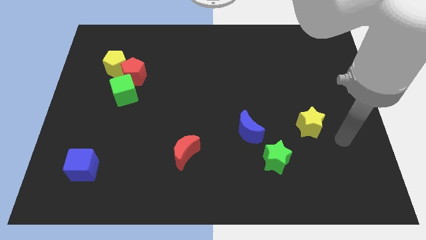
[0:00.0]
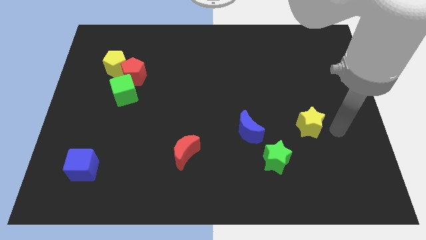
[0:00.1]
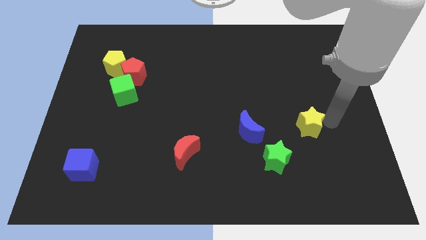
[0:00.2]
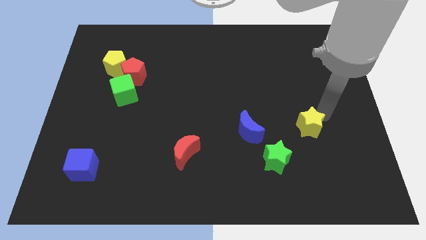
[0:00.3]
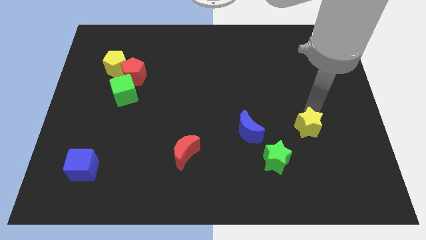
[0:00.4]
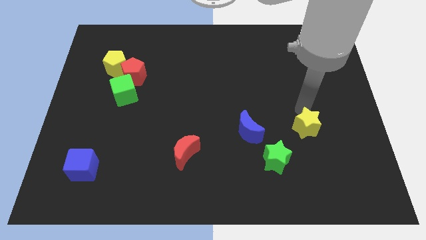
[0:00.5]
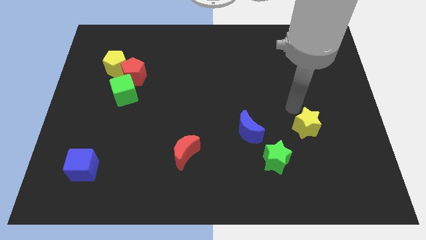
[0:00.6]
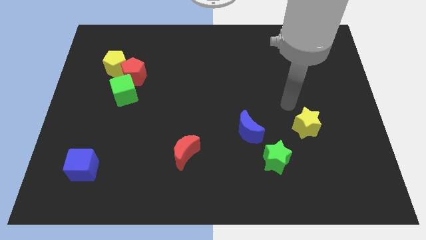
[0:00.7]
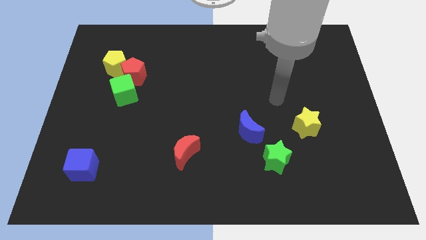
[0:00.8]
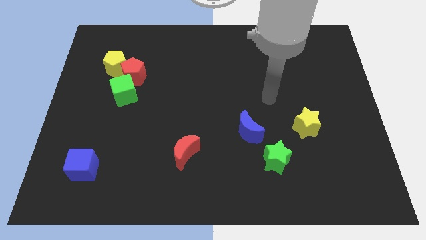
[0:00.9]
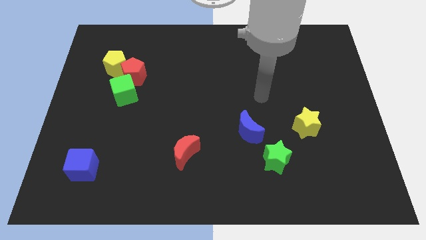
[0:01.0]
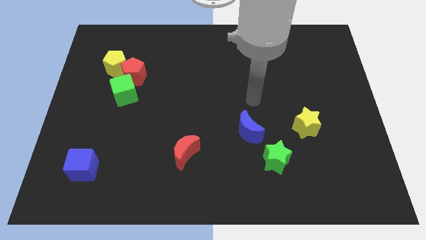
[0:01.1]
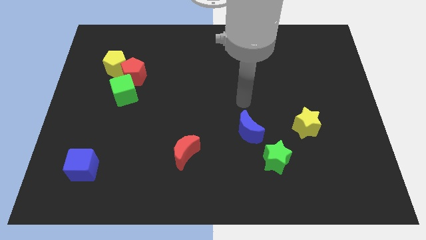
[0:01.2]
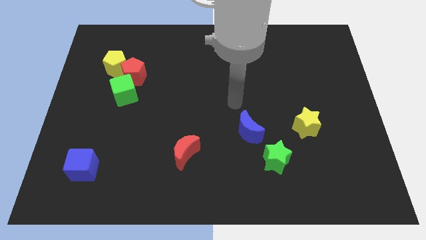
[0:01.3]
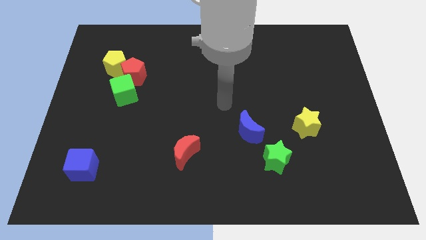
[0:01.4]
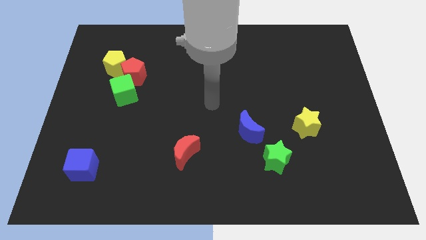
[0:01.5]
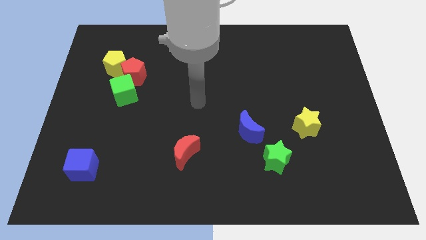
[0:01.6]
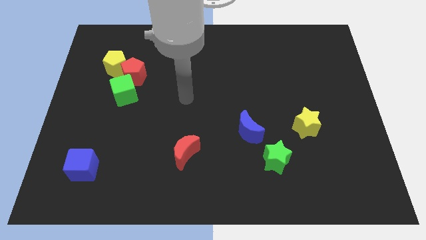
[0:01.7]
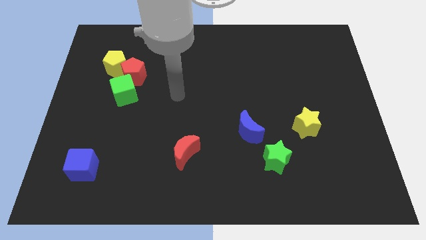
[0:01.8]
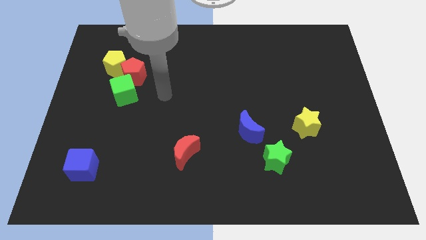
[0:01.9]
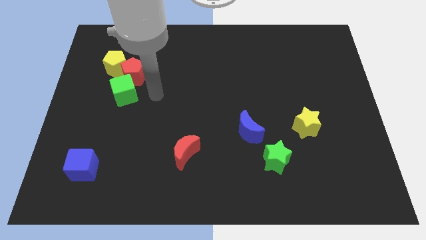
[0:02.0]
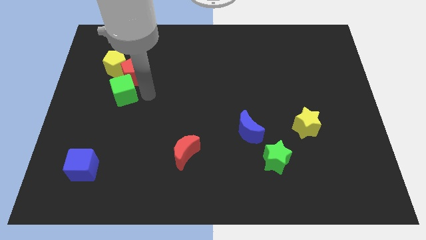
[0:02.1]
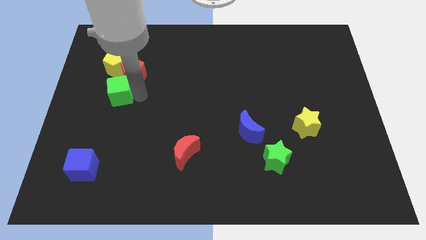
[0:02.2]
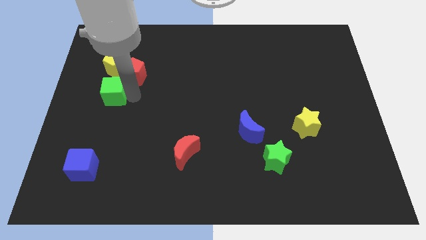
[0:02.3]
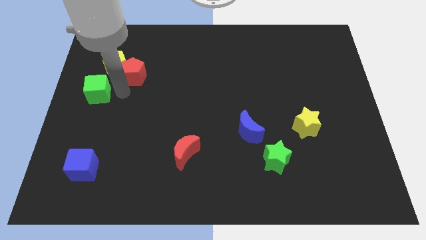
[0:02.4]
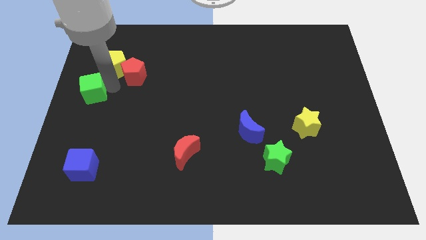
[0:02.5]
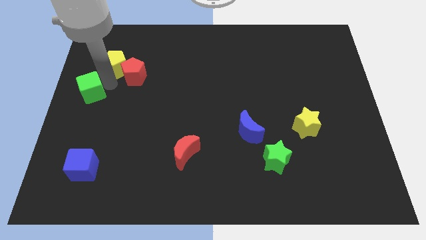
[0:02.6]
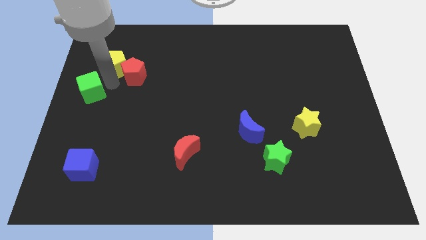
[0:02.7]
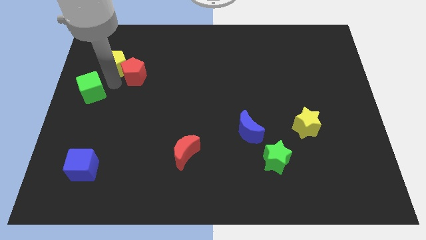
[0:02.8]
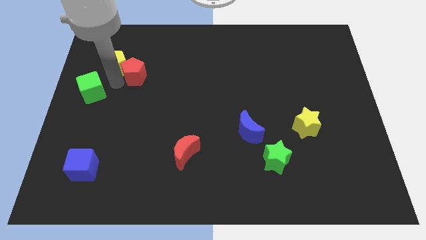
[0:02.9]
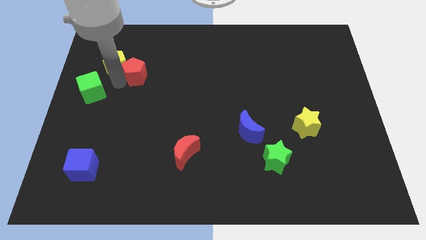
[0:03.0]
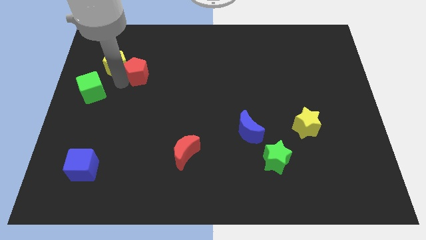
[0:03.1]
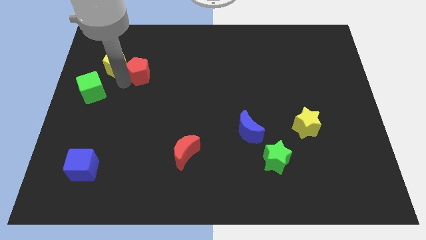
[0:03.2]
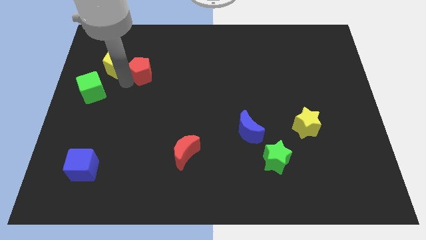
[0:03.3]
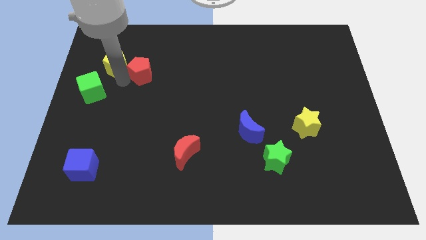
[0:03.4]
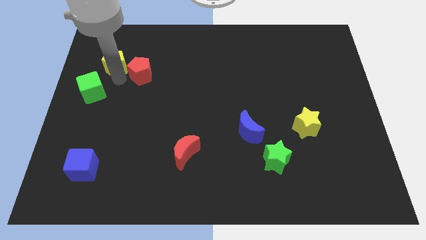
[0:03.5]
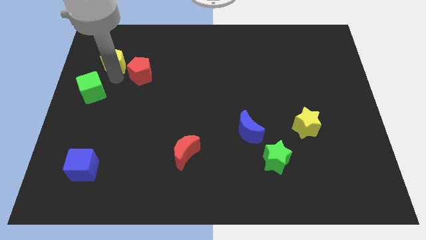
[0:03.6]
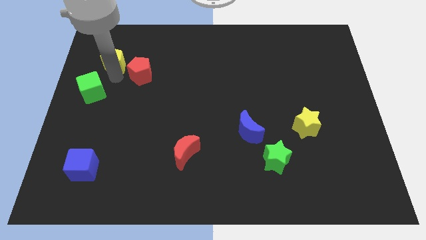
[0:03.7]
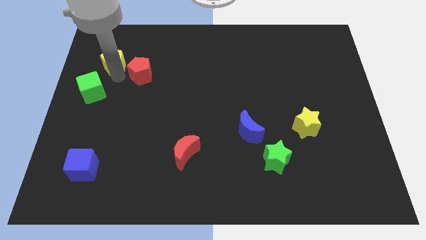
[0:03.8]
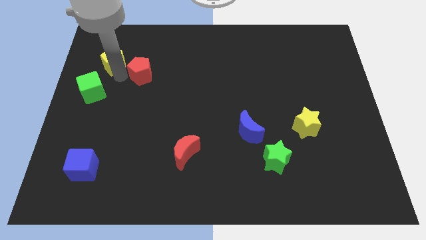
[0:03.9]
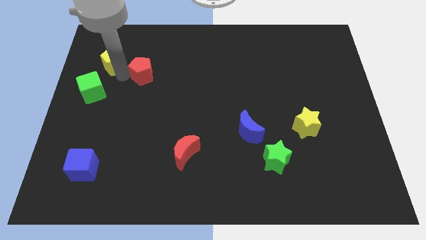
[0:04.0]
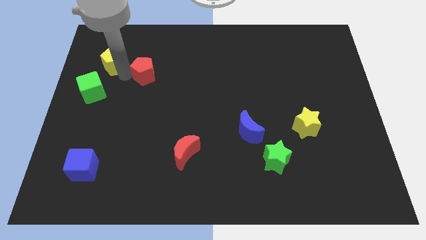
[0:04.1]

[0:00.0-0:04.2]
pull the red pentagon apart from the yellow pentagon and green cube

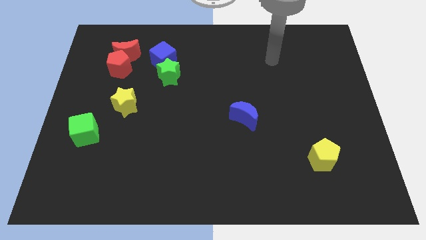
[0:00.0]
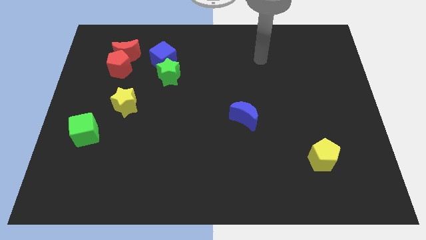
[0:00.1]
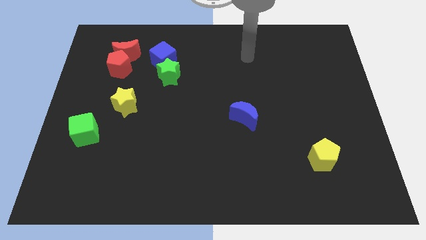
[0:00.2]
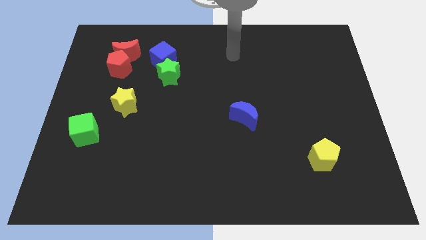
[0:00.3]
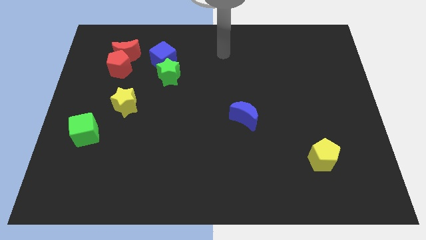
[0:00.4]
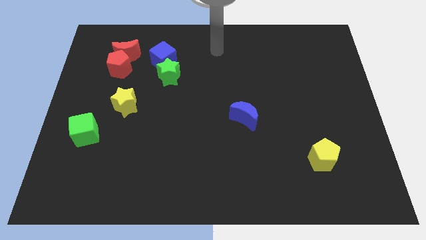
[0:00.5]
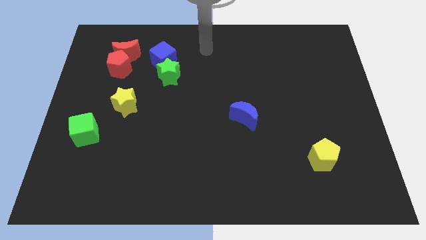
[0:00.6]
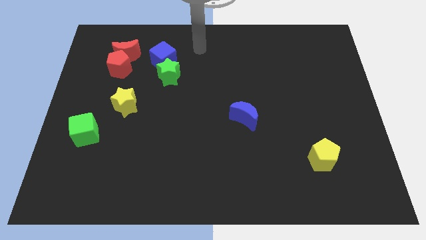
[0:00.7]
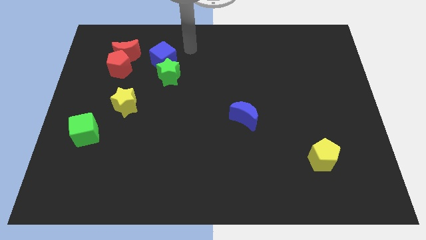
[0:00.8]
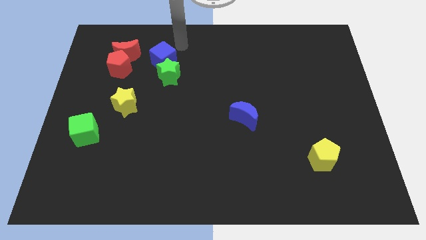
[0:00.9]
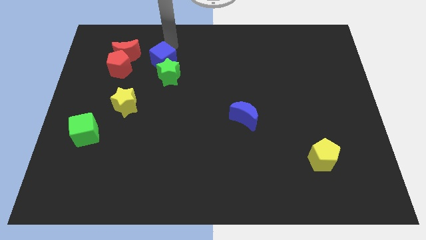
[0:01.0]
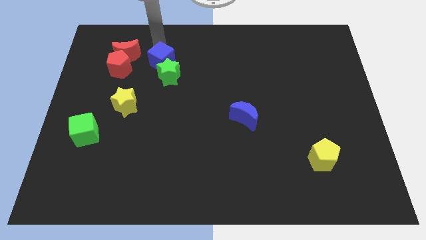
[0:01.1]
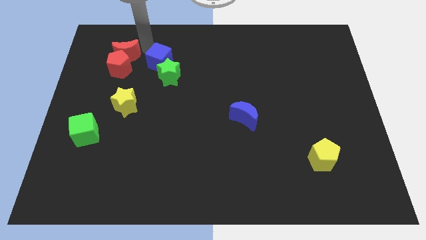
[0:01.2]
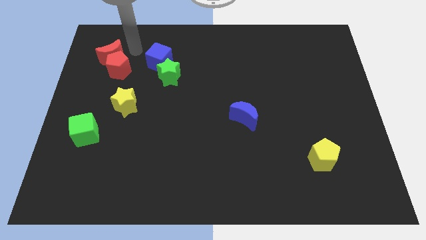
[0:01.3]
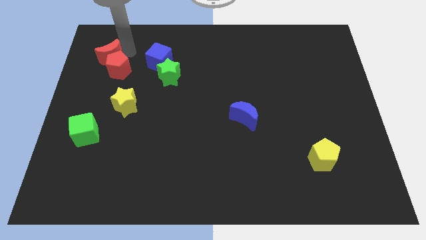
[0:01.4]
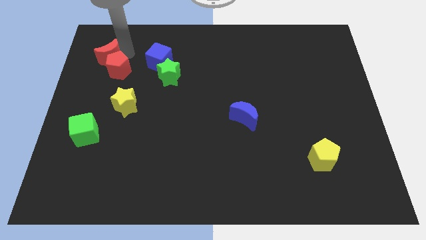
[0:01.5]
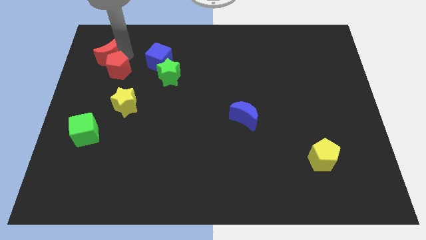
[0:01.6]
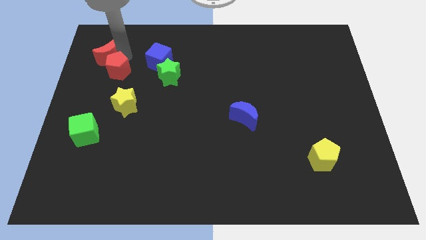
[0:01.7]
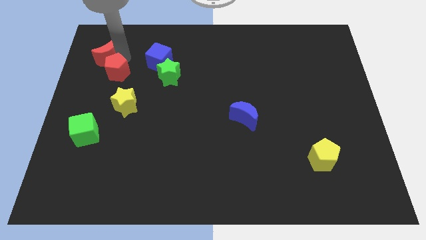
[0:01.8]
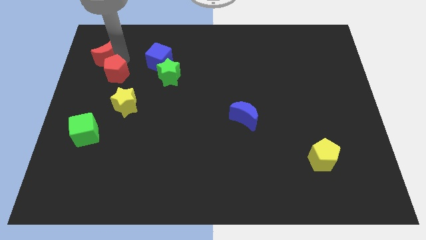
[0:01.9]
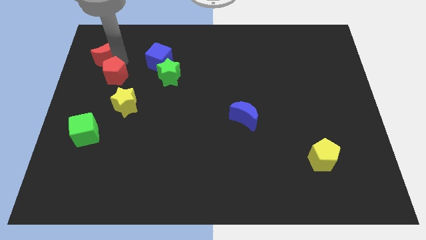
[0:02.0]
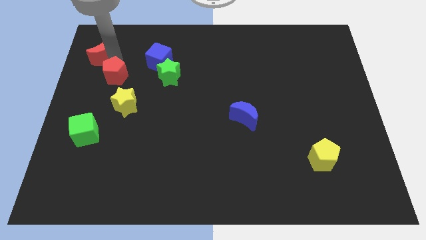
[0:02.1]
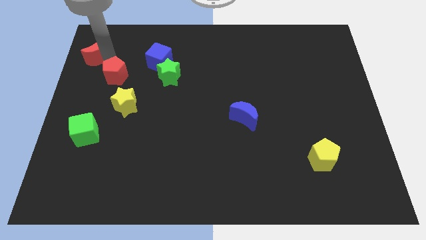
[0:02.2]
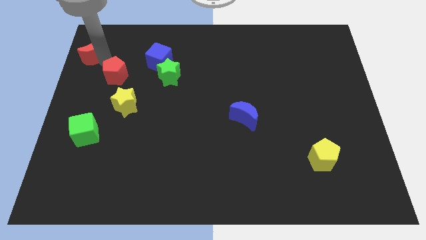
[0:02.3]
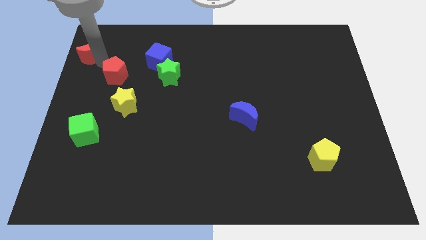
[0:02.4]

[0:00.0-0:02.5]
move the red pentagon away from the red moon

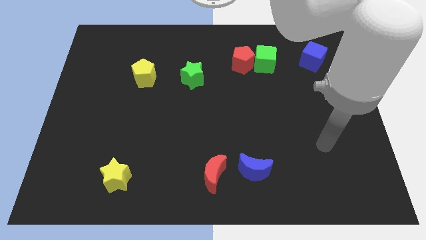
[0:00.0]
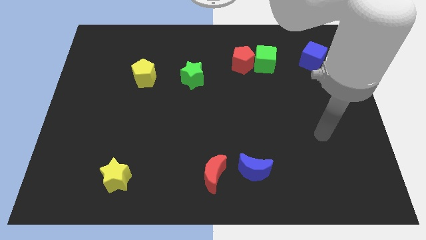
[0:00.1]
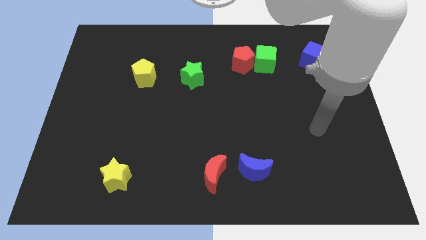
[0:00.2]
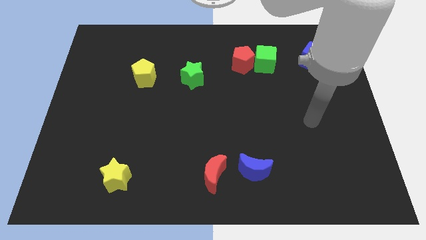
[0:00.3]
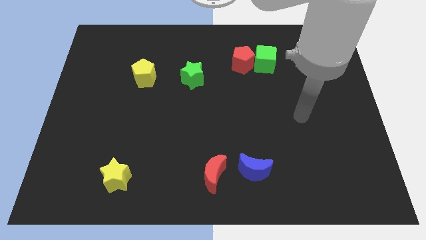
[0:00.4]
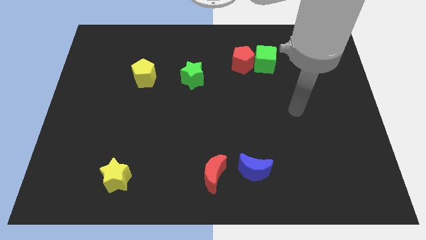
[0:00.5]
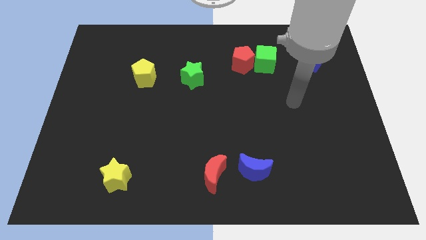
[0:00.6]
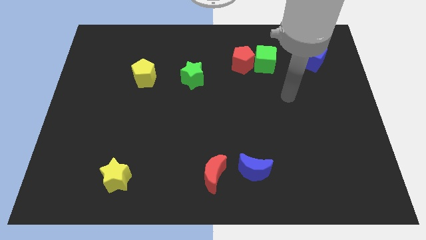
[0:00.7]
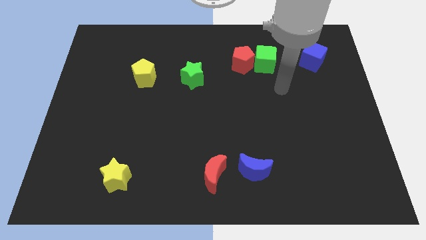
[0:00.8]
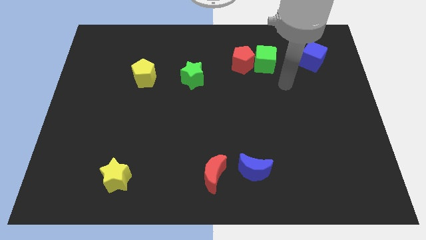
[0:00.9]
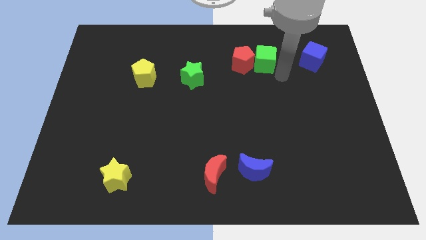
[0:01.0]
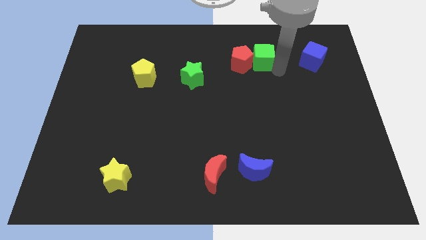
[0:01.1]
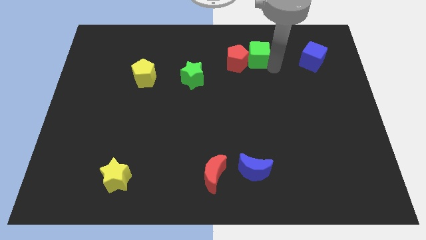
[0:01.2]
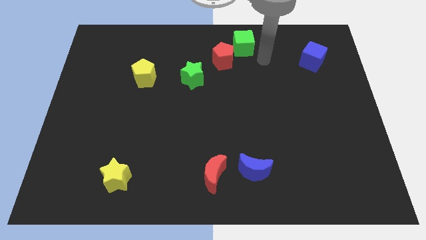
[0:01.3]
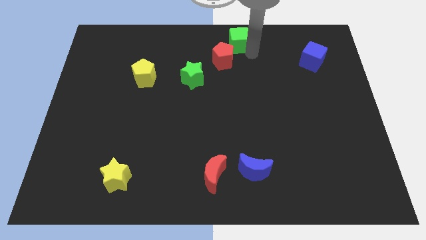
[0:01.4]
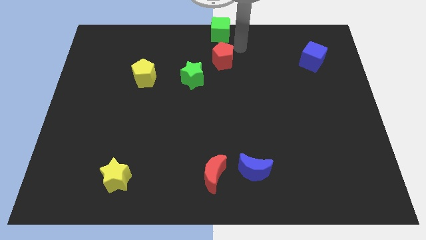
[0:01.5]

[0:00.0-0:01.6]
separate the red pentagon from the green cube

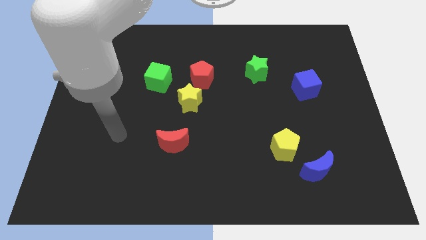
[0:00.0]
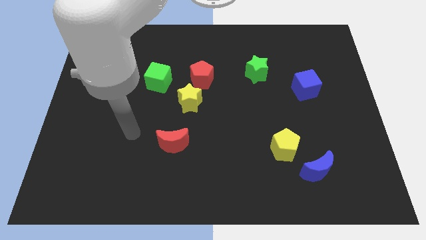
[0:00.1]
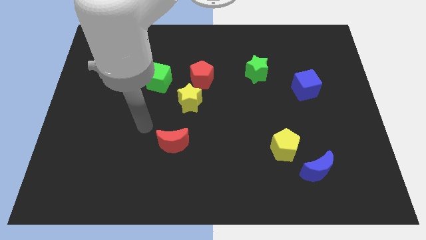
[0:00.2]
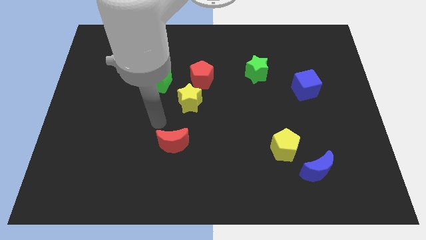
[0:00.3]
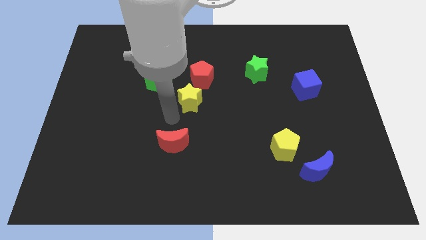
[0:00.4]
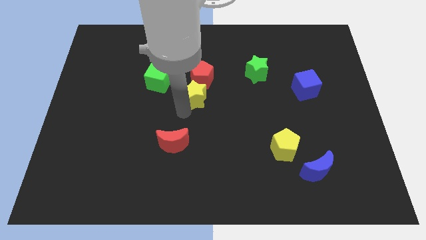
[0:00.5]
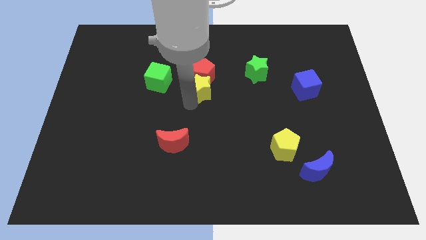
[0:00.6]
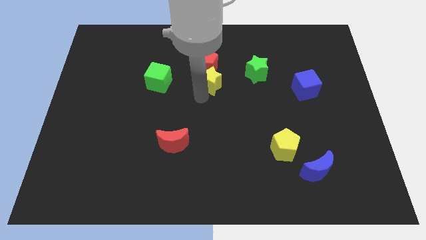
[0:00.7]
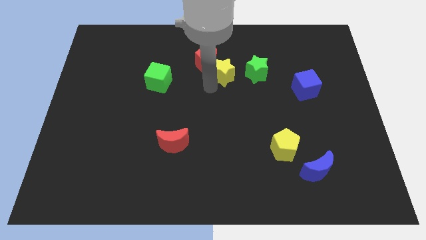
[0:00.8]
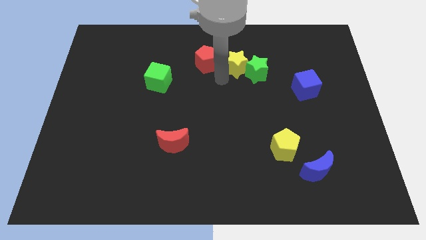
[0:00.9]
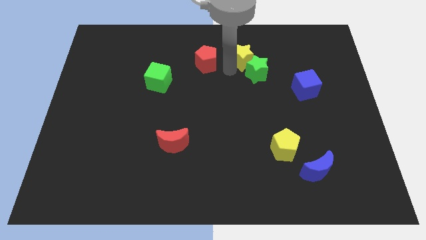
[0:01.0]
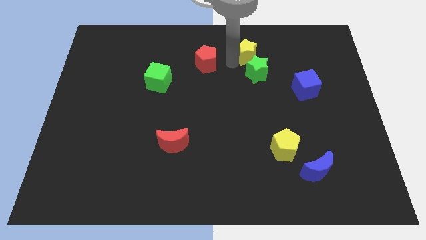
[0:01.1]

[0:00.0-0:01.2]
separate the red pentagon from the yellow star
